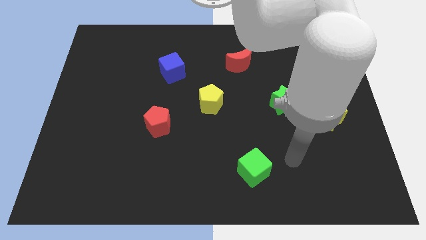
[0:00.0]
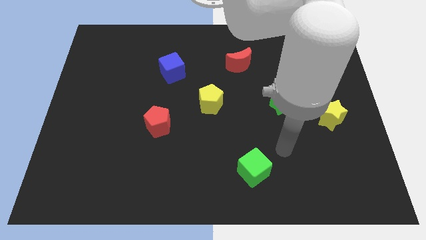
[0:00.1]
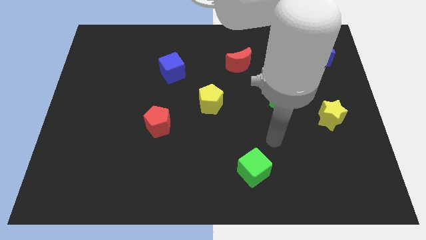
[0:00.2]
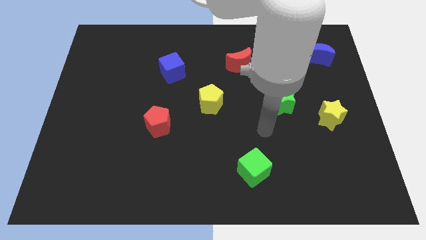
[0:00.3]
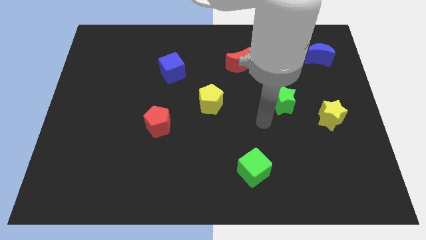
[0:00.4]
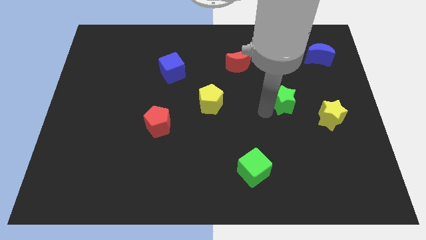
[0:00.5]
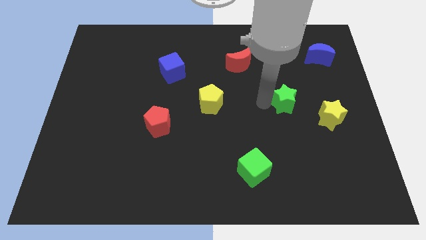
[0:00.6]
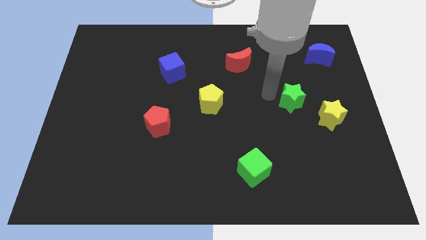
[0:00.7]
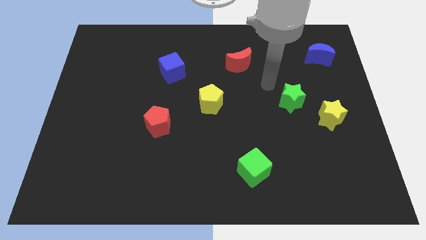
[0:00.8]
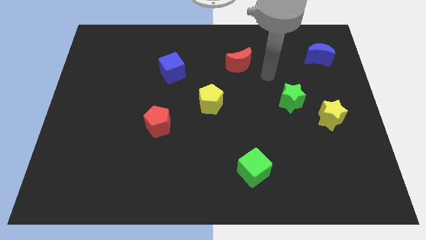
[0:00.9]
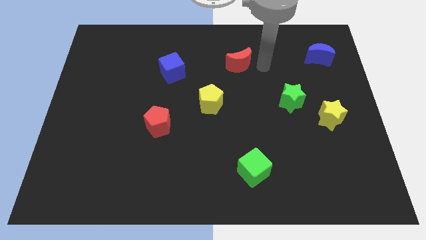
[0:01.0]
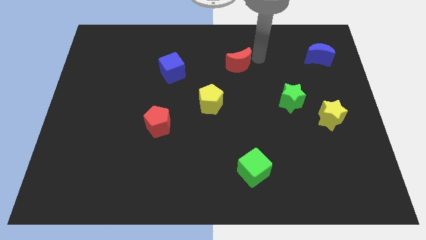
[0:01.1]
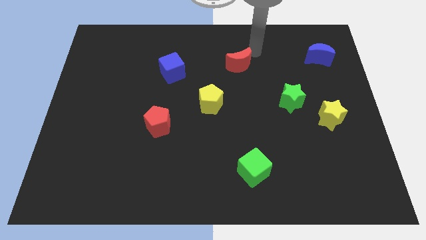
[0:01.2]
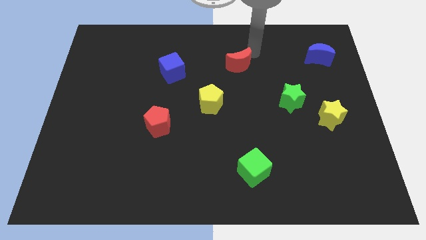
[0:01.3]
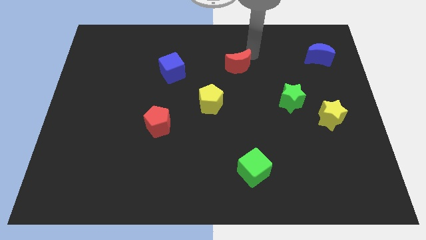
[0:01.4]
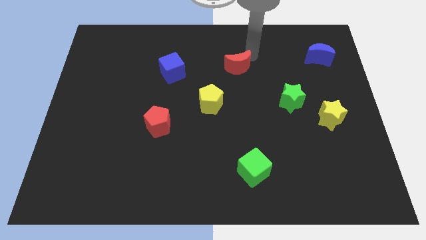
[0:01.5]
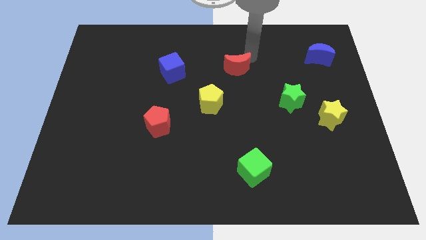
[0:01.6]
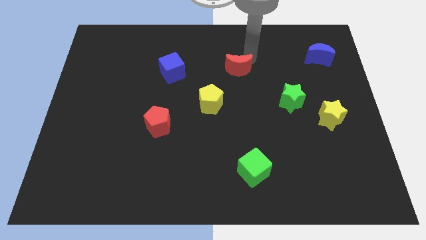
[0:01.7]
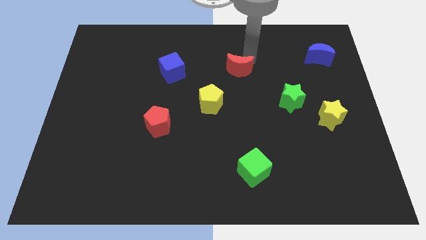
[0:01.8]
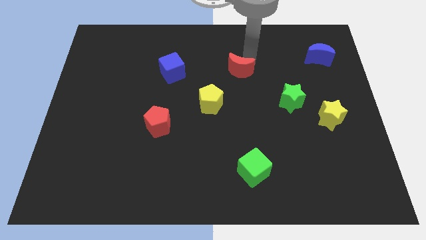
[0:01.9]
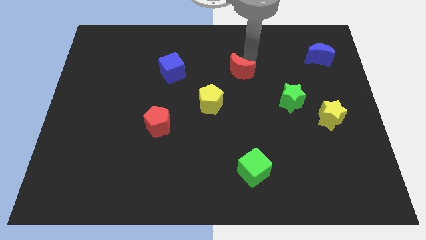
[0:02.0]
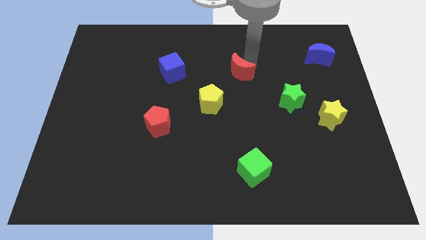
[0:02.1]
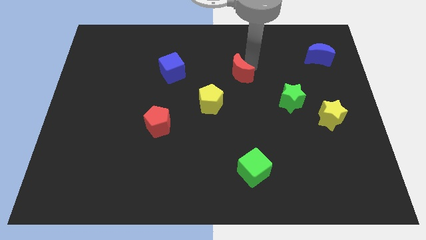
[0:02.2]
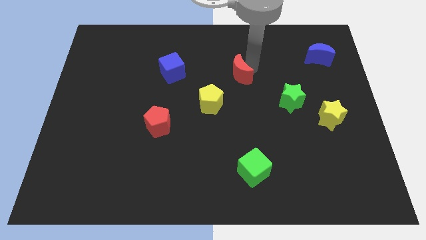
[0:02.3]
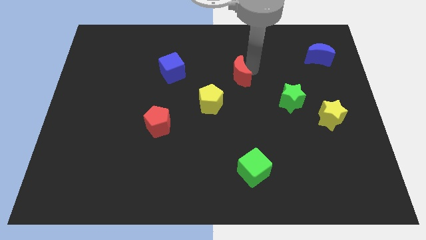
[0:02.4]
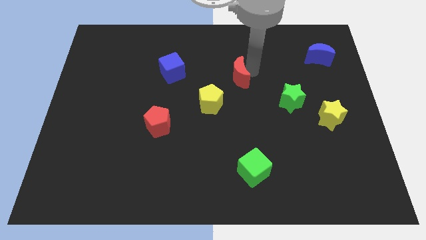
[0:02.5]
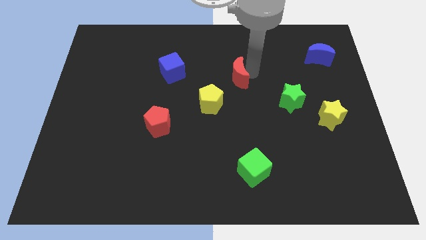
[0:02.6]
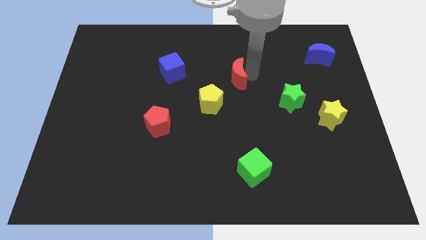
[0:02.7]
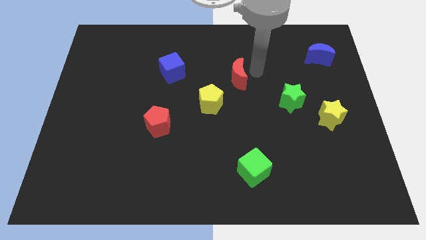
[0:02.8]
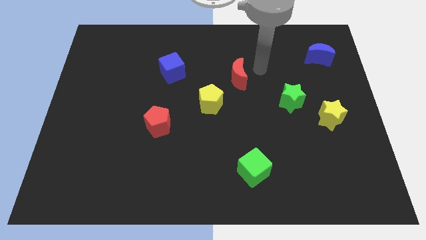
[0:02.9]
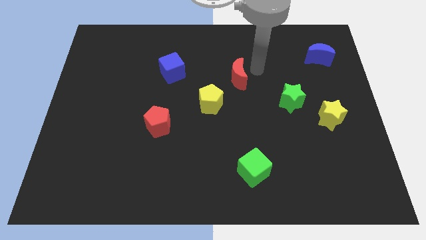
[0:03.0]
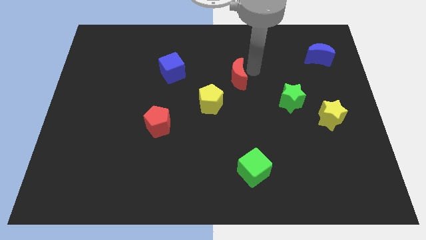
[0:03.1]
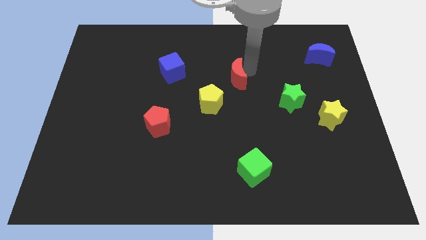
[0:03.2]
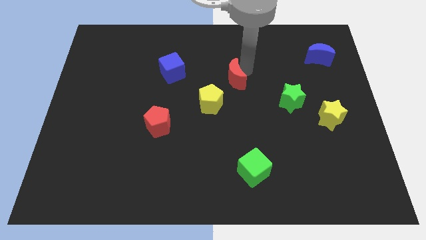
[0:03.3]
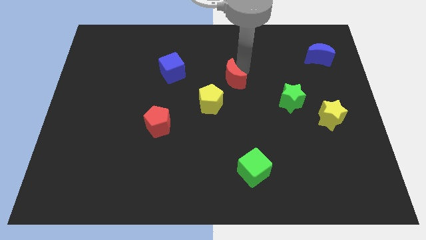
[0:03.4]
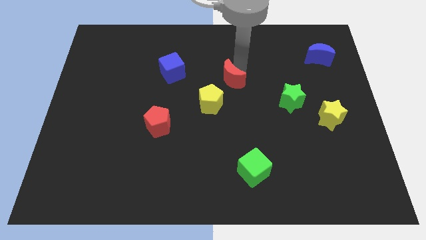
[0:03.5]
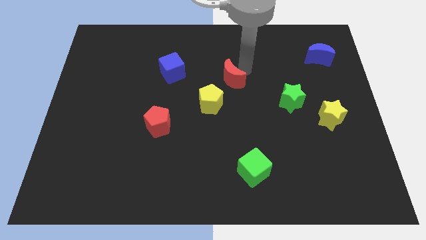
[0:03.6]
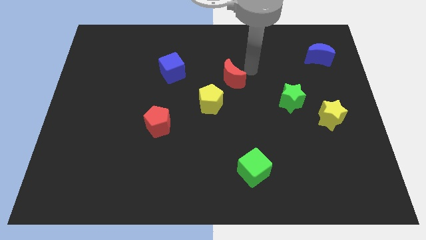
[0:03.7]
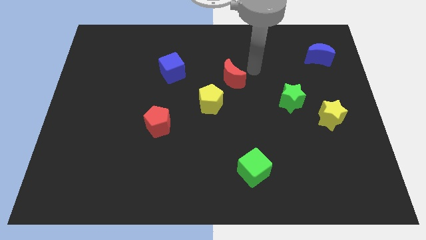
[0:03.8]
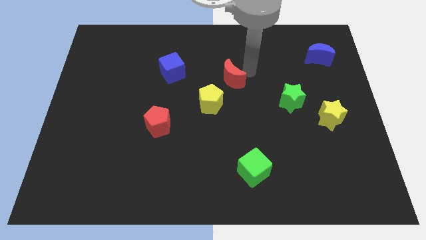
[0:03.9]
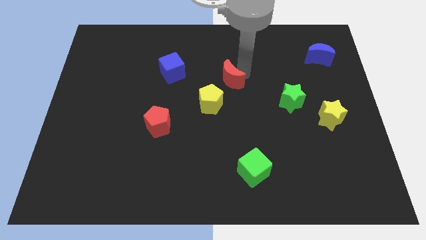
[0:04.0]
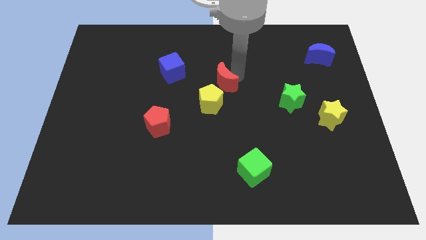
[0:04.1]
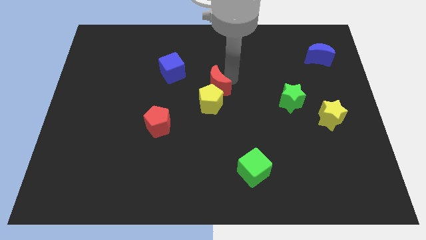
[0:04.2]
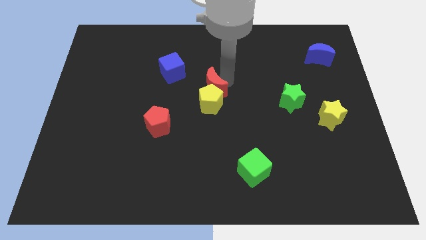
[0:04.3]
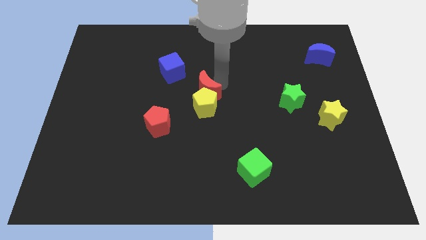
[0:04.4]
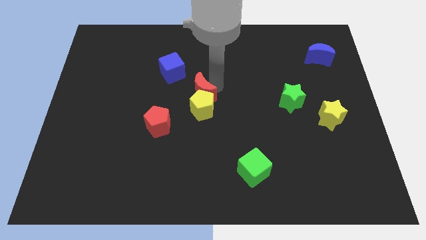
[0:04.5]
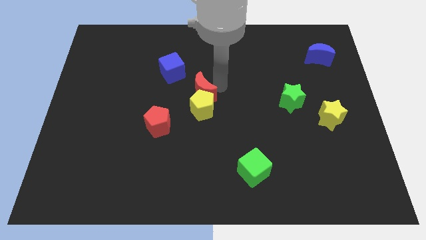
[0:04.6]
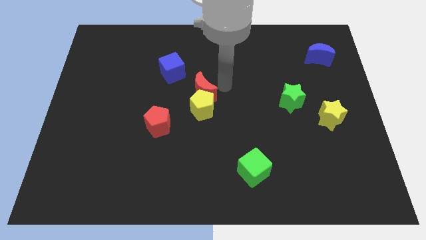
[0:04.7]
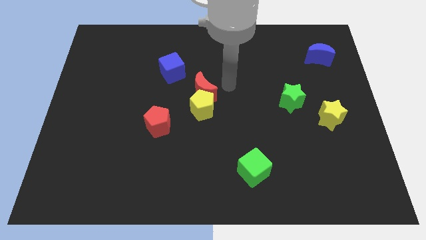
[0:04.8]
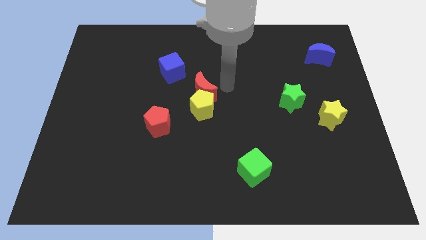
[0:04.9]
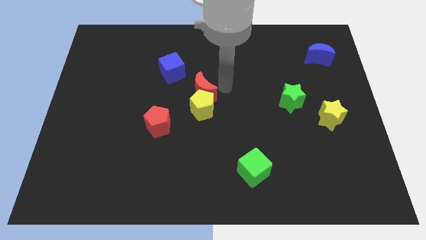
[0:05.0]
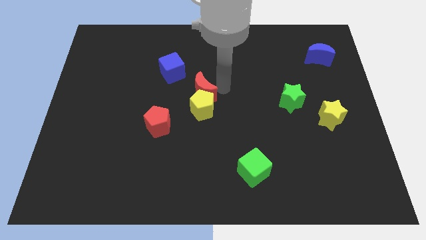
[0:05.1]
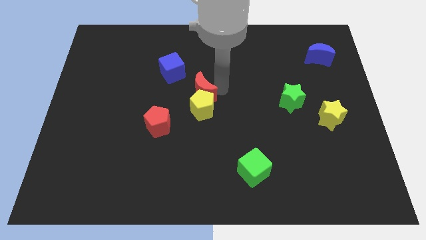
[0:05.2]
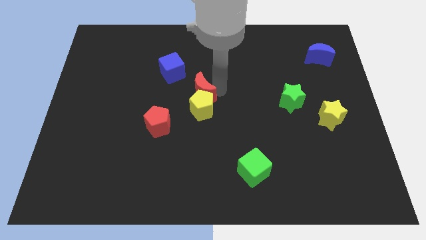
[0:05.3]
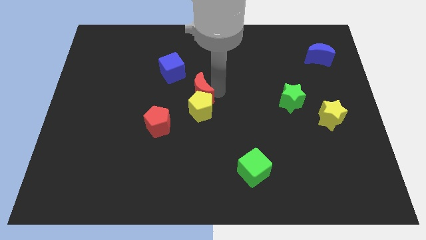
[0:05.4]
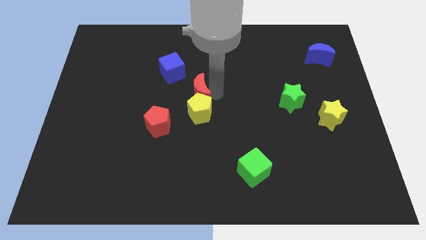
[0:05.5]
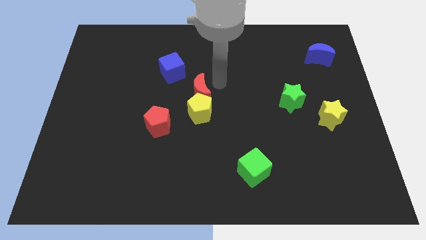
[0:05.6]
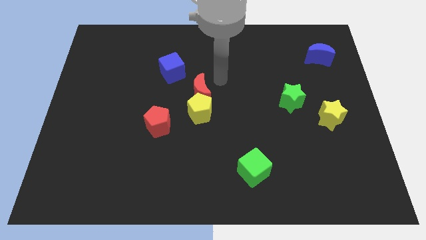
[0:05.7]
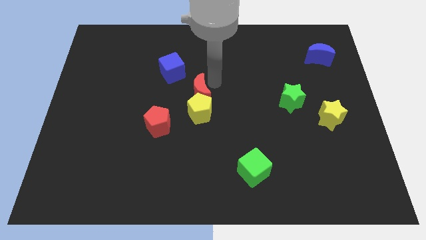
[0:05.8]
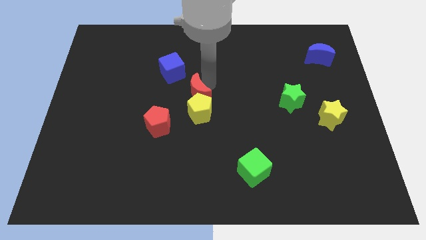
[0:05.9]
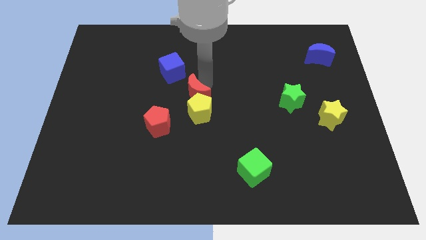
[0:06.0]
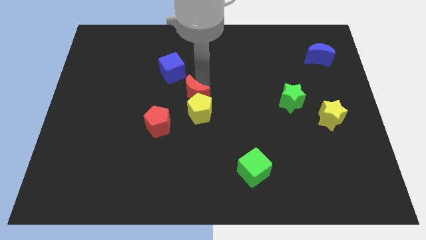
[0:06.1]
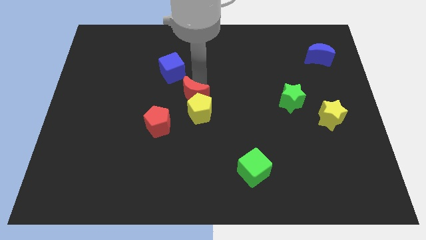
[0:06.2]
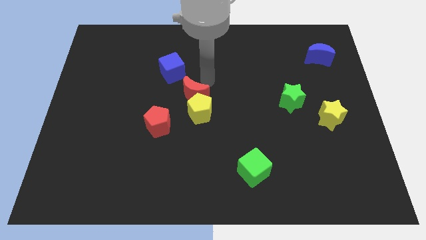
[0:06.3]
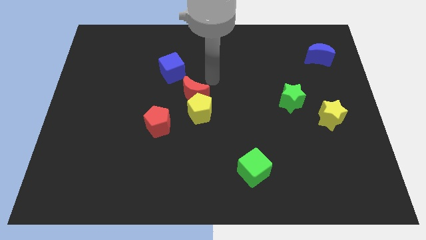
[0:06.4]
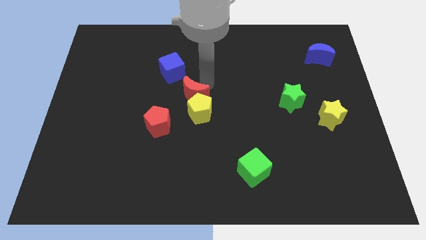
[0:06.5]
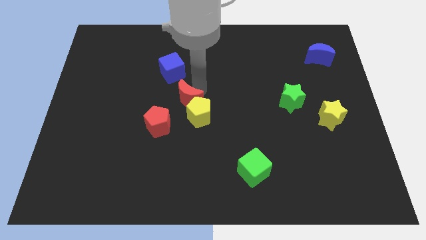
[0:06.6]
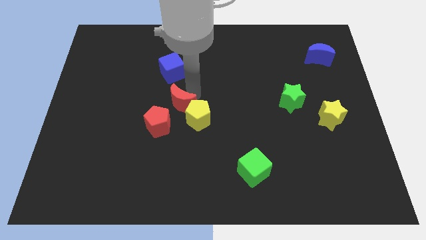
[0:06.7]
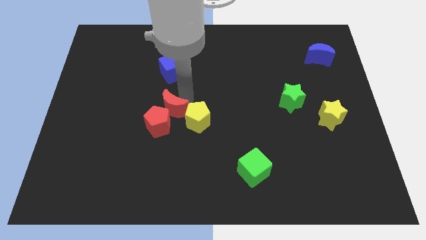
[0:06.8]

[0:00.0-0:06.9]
slide the red moon to the red pentagon

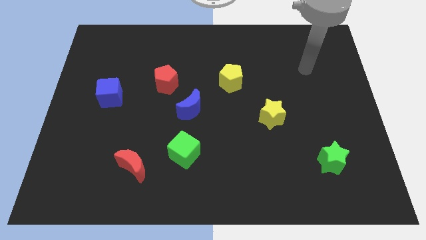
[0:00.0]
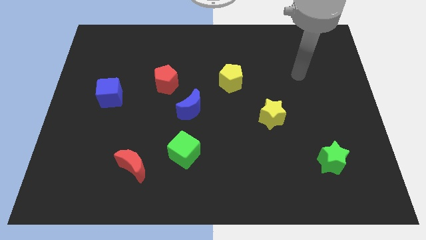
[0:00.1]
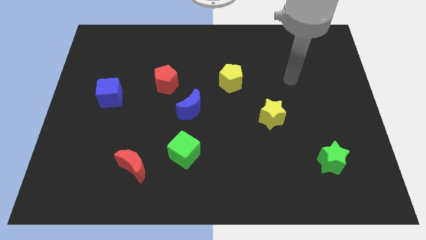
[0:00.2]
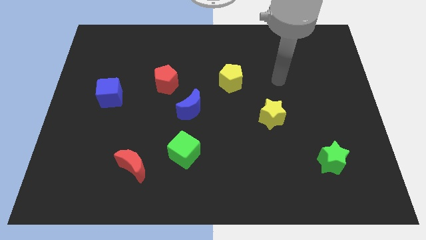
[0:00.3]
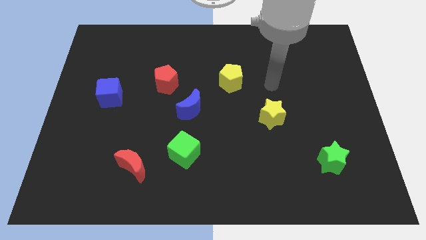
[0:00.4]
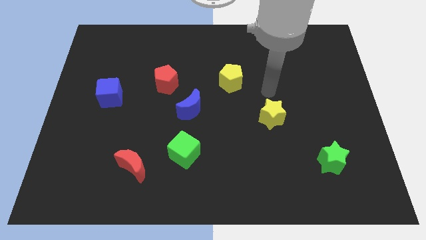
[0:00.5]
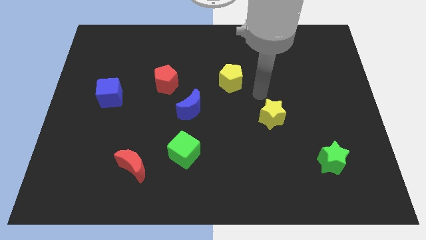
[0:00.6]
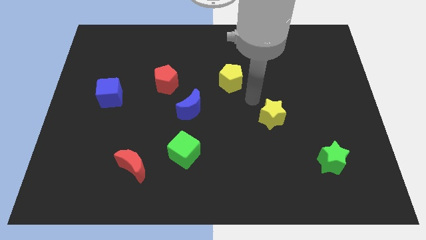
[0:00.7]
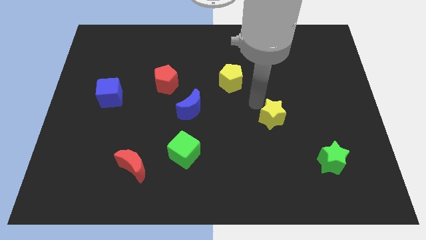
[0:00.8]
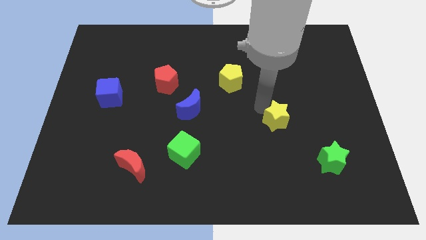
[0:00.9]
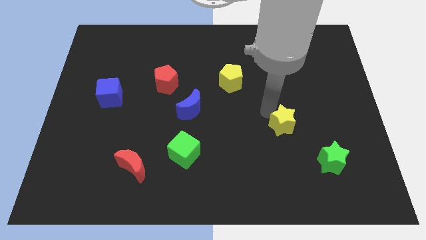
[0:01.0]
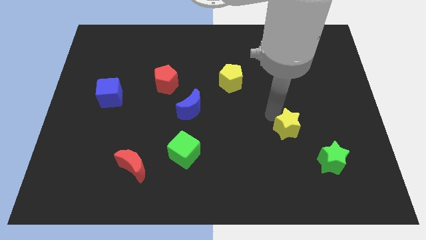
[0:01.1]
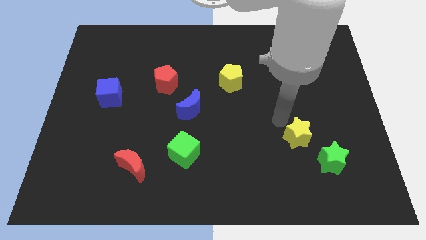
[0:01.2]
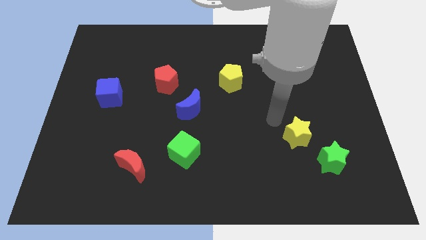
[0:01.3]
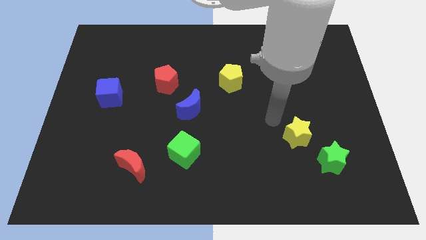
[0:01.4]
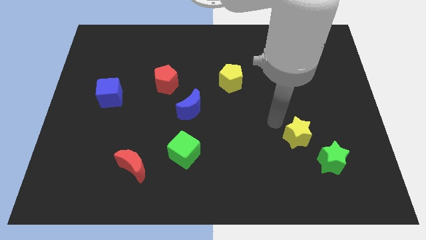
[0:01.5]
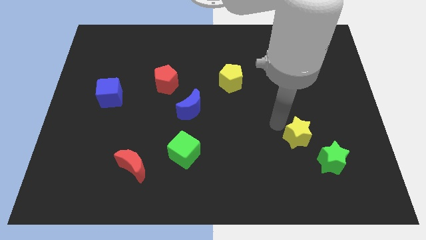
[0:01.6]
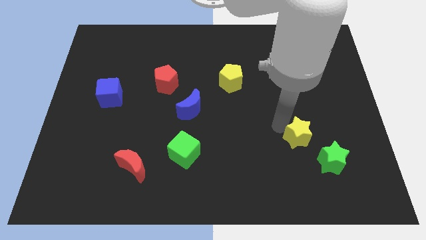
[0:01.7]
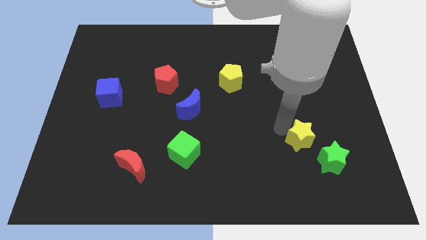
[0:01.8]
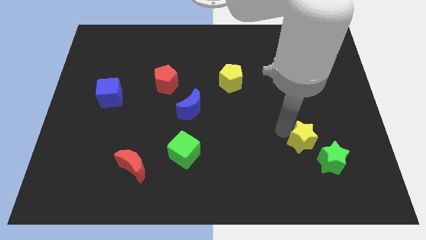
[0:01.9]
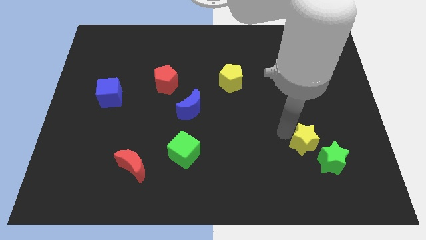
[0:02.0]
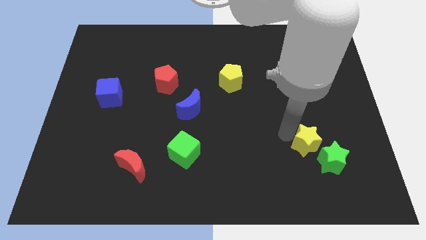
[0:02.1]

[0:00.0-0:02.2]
slide the yellow star close to the green star
